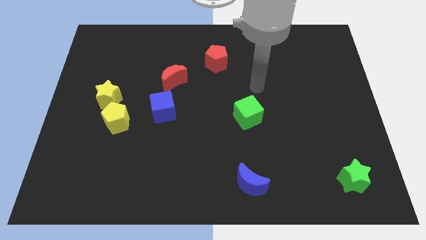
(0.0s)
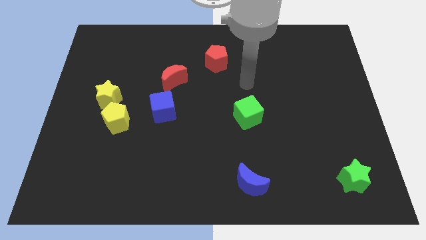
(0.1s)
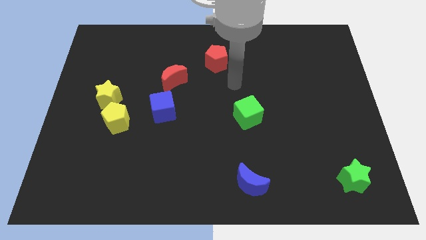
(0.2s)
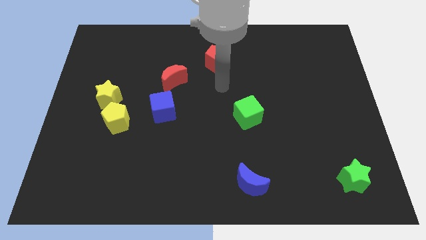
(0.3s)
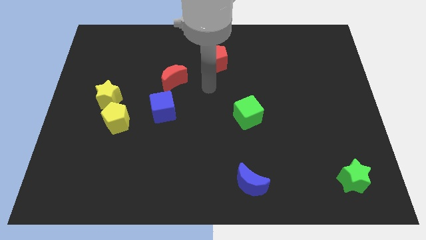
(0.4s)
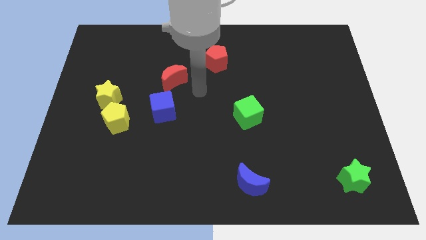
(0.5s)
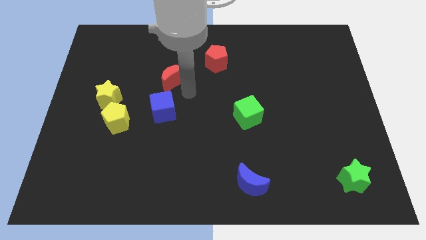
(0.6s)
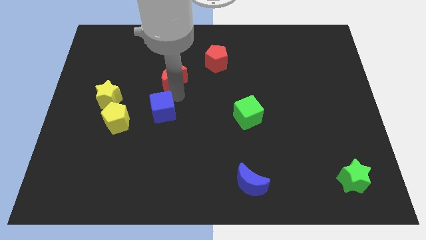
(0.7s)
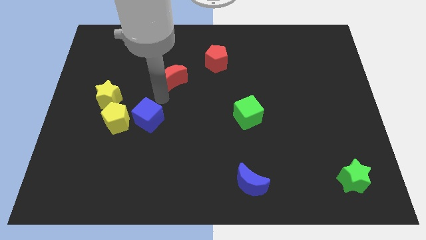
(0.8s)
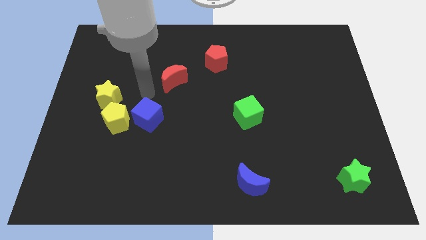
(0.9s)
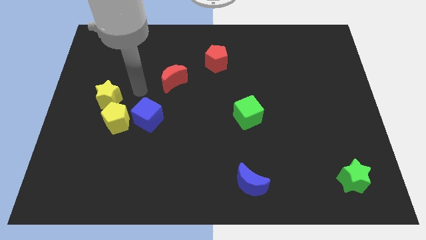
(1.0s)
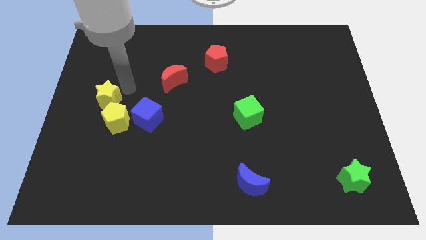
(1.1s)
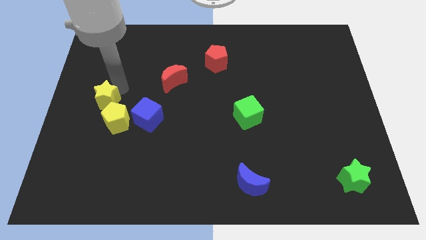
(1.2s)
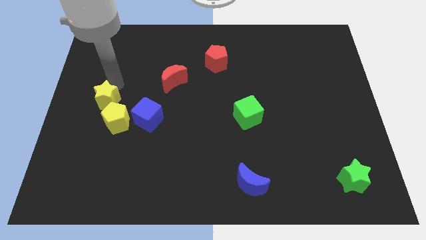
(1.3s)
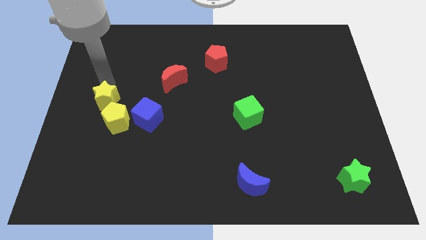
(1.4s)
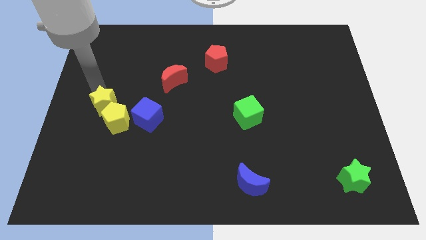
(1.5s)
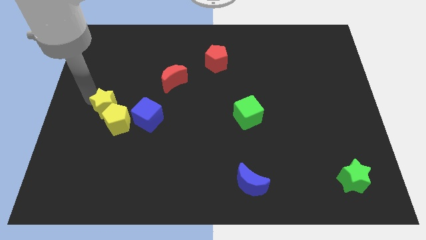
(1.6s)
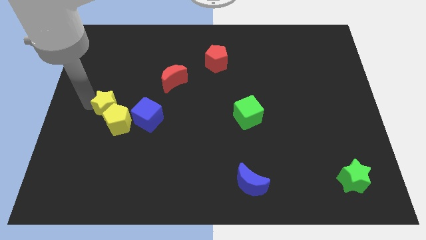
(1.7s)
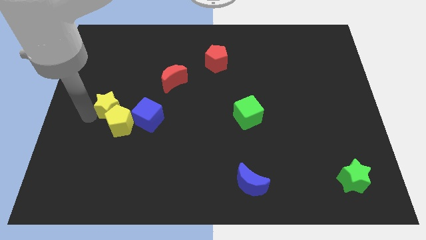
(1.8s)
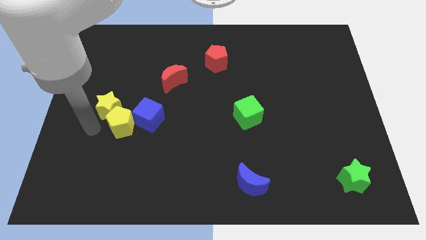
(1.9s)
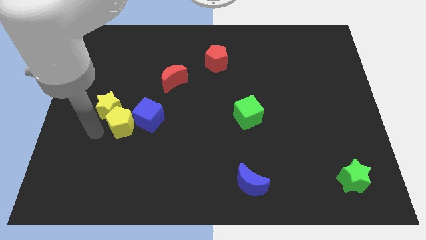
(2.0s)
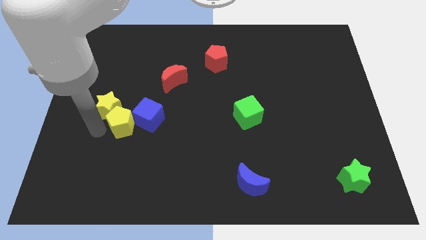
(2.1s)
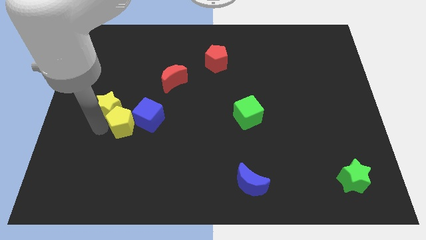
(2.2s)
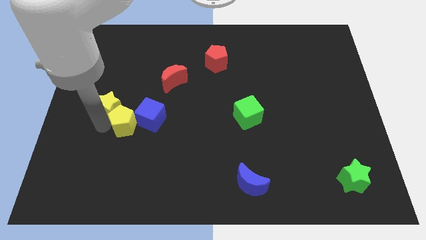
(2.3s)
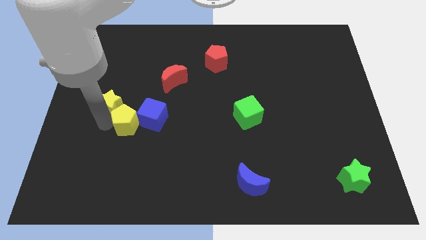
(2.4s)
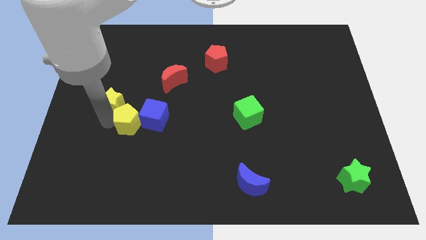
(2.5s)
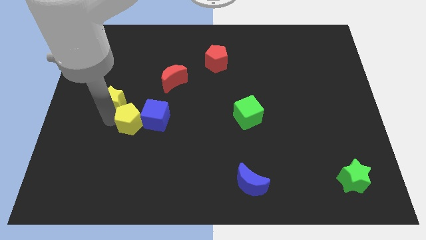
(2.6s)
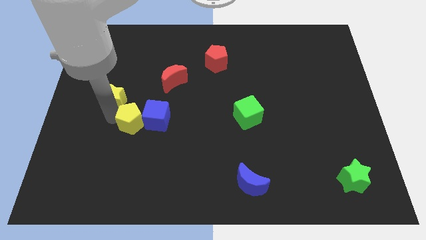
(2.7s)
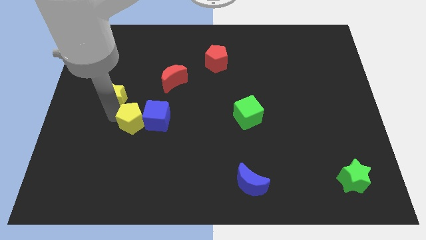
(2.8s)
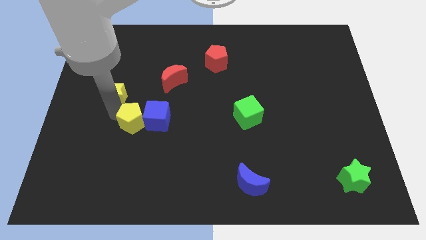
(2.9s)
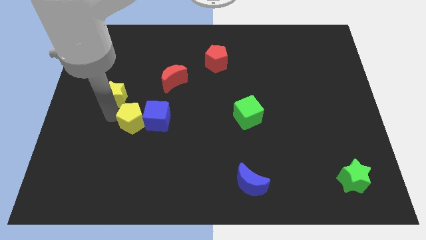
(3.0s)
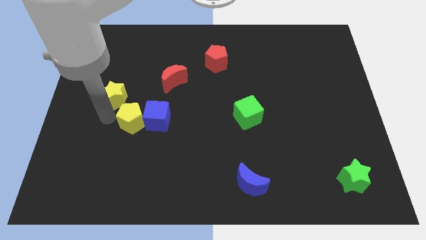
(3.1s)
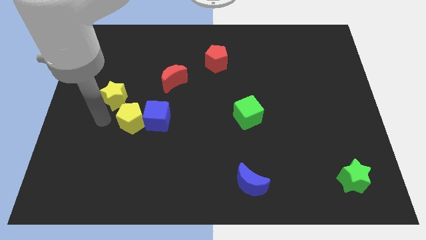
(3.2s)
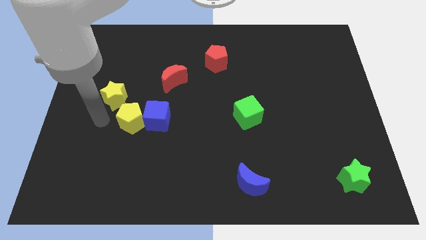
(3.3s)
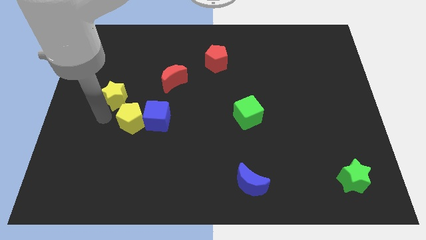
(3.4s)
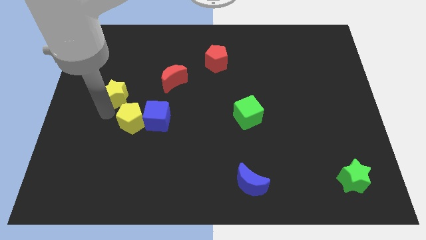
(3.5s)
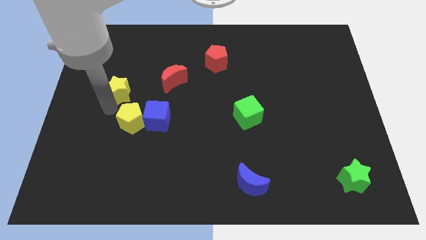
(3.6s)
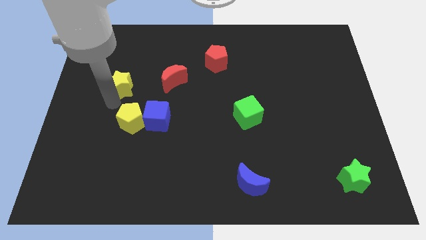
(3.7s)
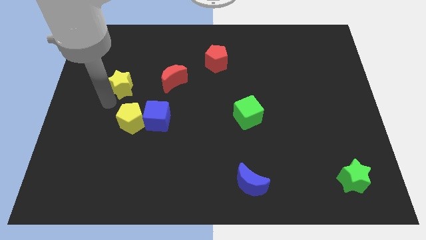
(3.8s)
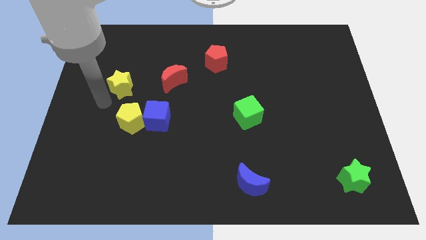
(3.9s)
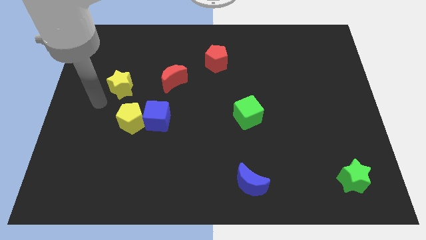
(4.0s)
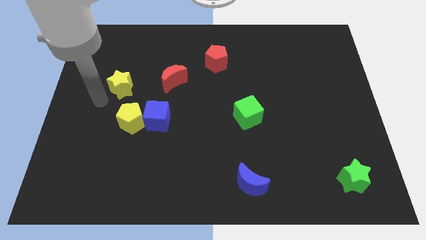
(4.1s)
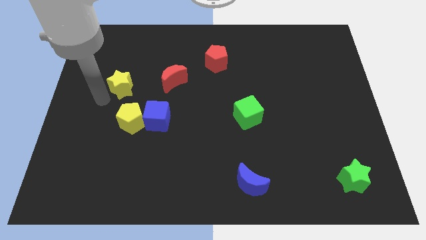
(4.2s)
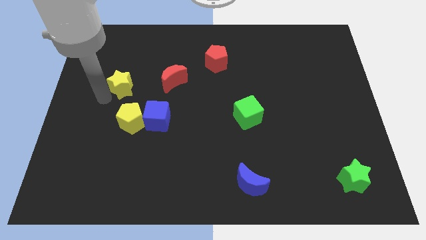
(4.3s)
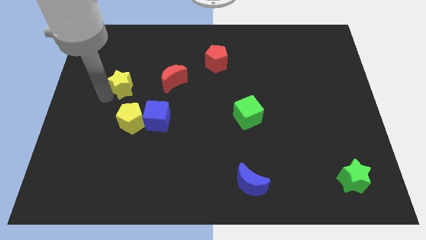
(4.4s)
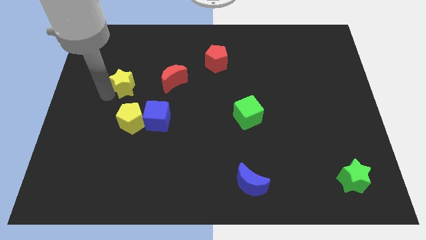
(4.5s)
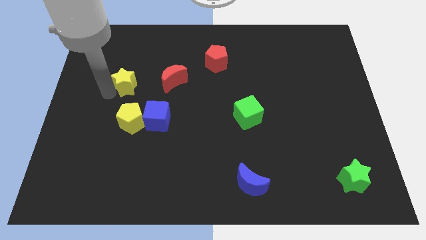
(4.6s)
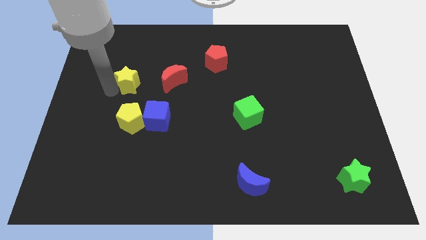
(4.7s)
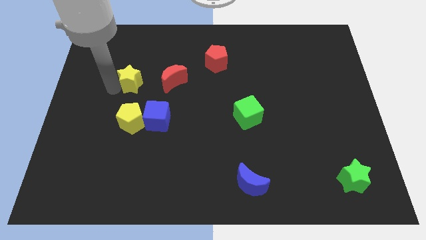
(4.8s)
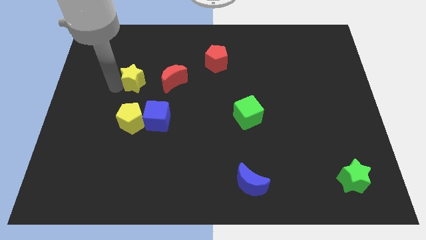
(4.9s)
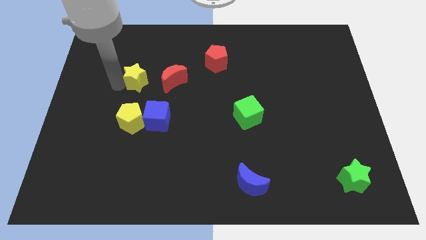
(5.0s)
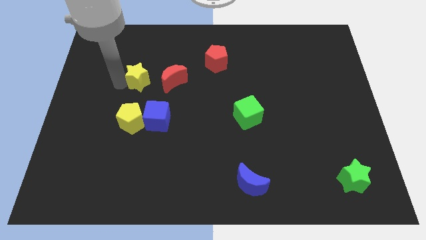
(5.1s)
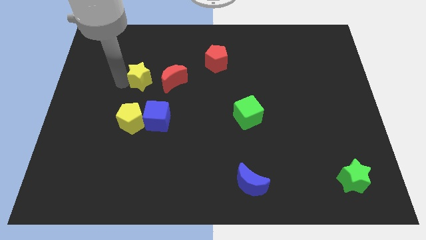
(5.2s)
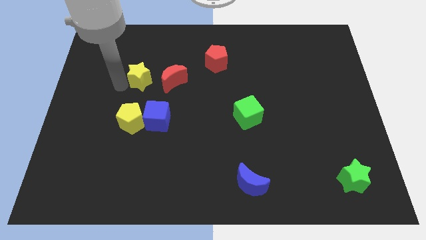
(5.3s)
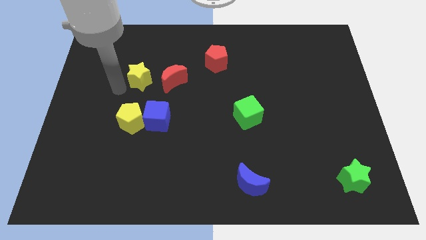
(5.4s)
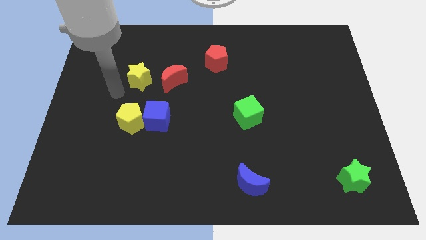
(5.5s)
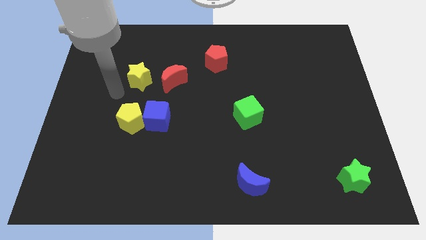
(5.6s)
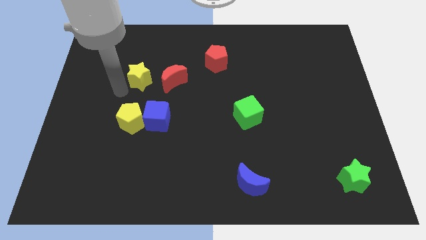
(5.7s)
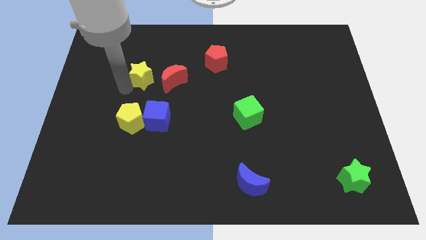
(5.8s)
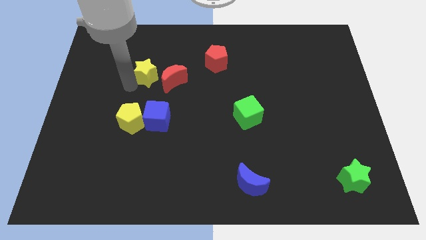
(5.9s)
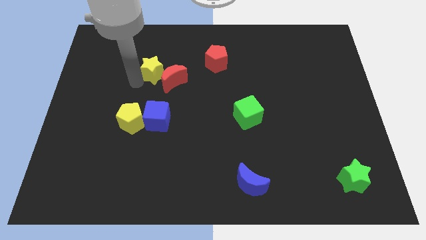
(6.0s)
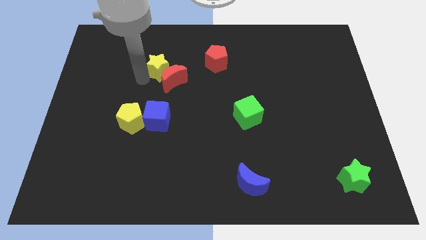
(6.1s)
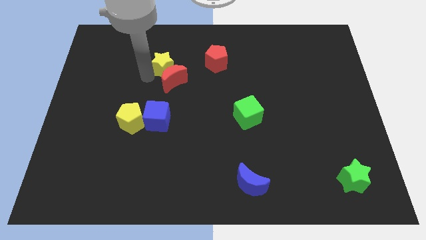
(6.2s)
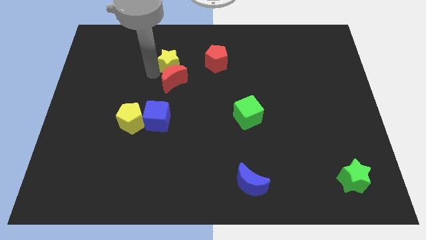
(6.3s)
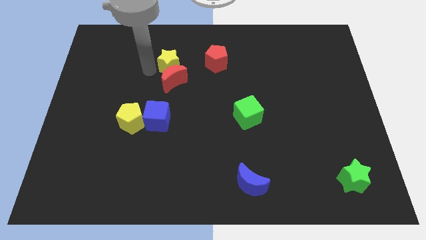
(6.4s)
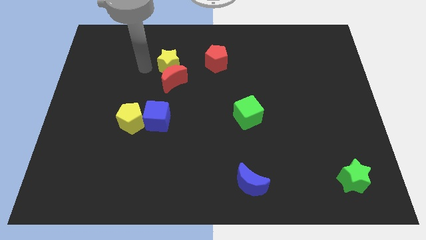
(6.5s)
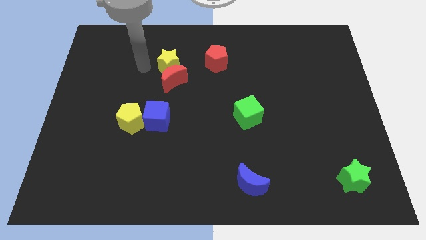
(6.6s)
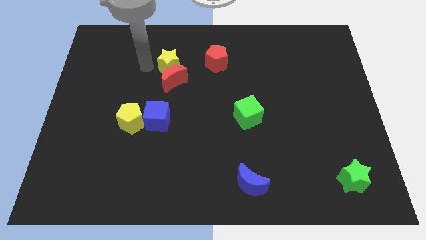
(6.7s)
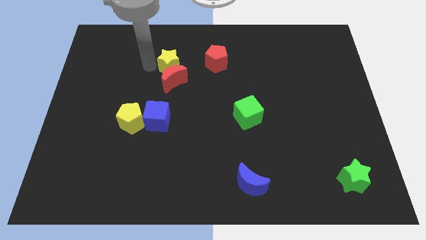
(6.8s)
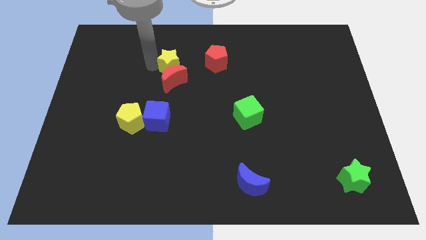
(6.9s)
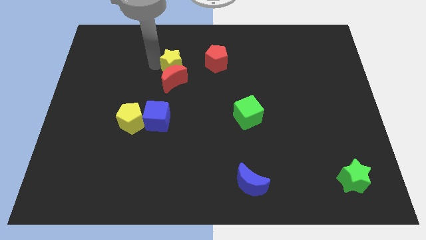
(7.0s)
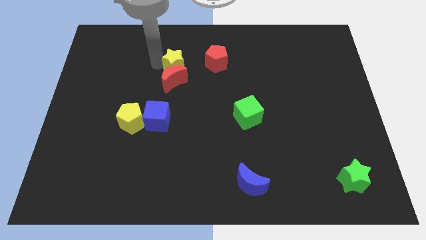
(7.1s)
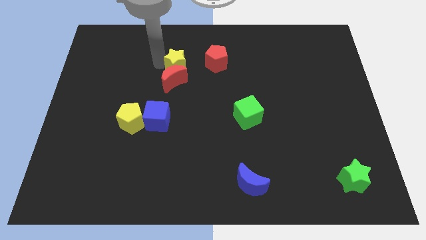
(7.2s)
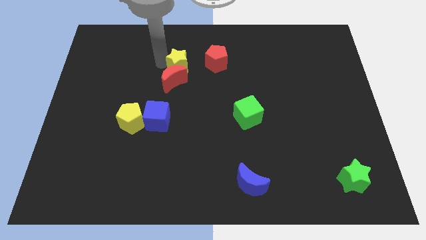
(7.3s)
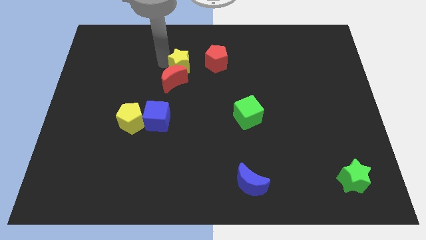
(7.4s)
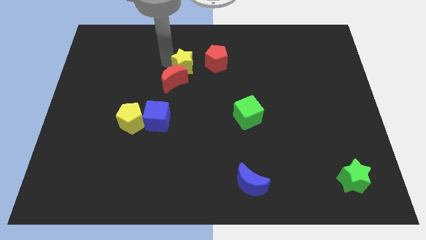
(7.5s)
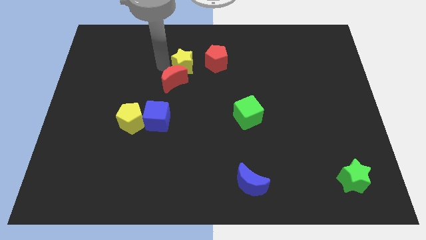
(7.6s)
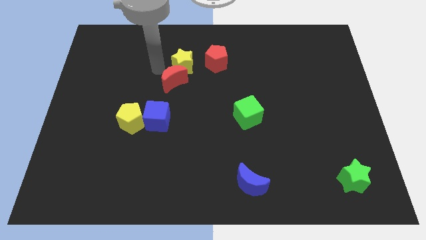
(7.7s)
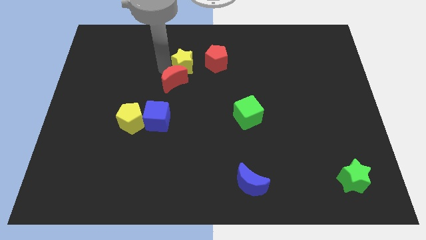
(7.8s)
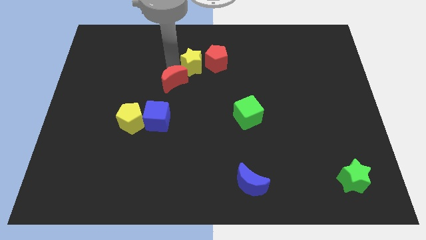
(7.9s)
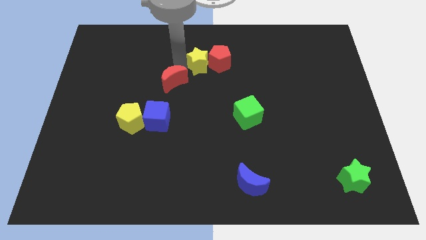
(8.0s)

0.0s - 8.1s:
push the yellow star next to the red pentagon
